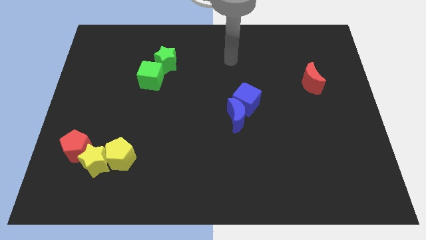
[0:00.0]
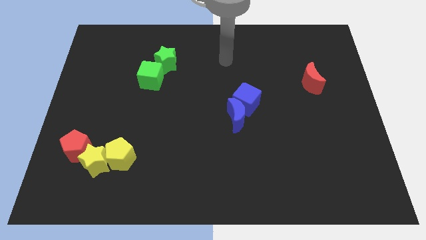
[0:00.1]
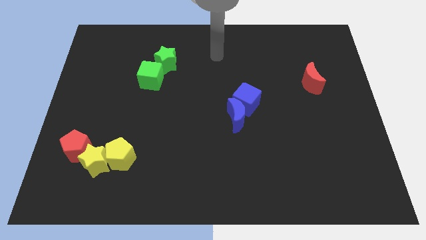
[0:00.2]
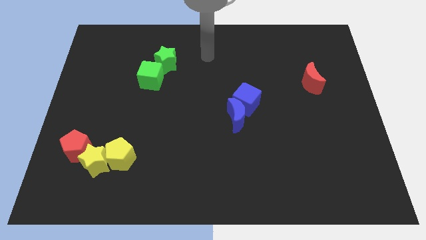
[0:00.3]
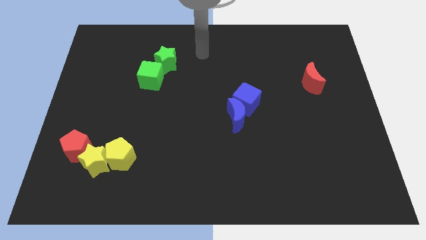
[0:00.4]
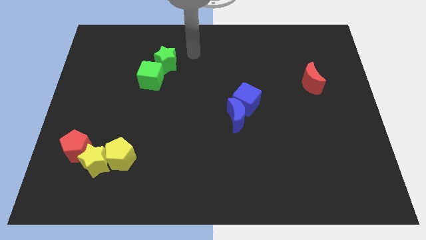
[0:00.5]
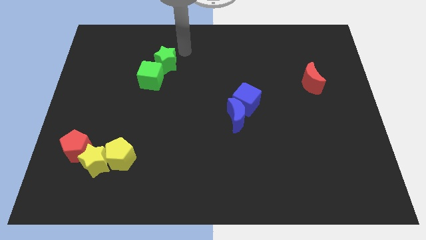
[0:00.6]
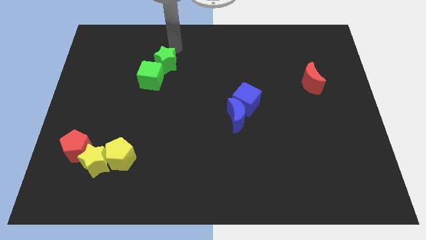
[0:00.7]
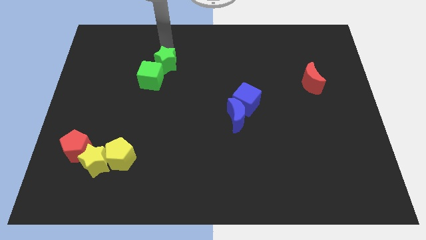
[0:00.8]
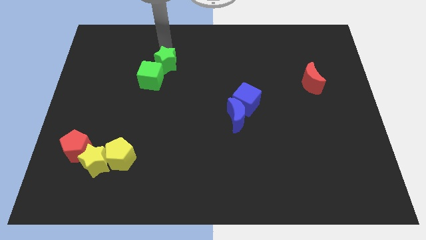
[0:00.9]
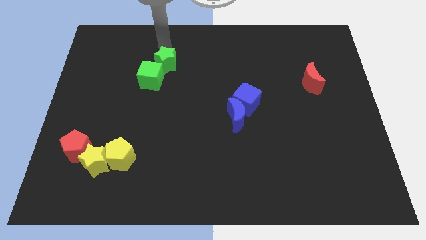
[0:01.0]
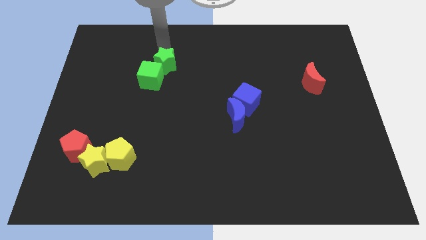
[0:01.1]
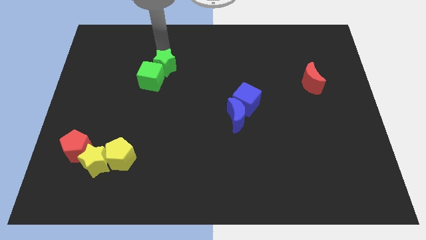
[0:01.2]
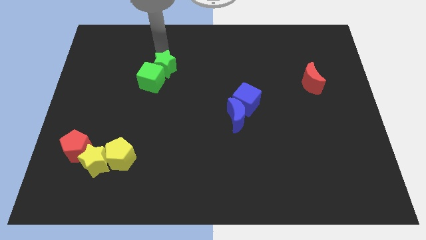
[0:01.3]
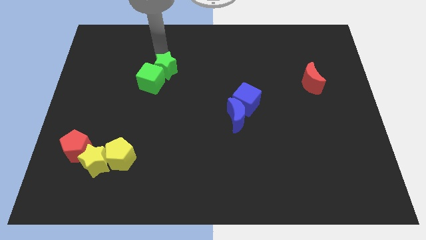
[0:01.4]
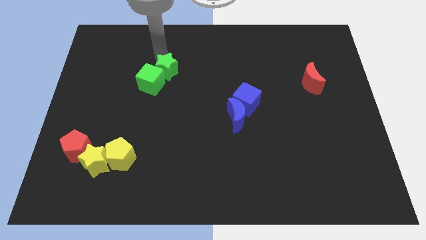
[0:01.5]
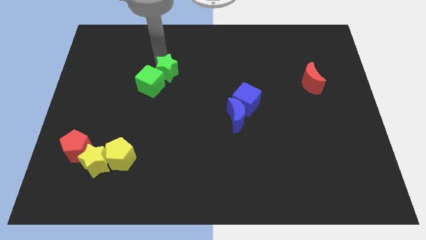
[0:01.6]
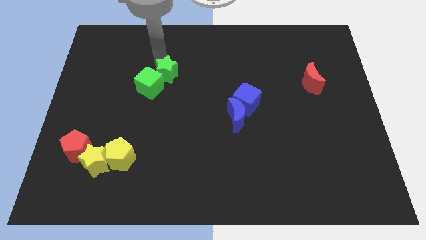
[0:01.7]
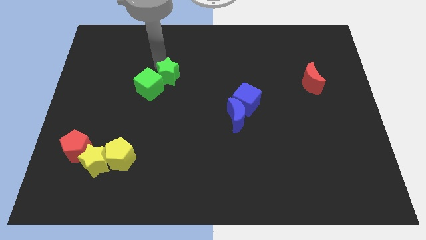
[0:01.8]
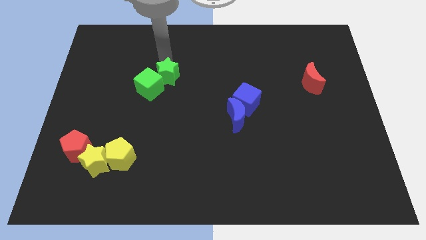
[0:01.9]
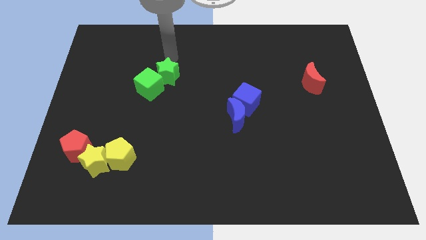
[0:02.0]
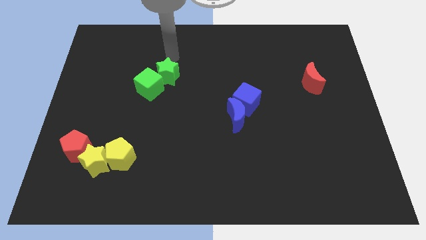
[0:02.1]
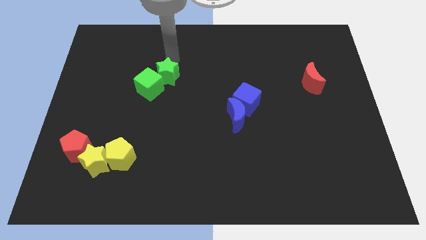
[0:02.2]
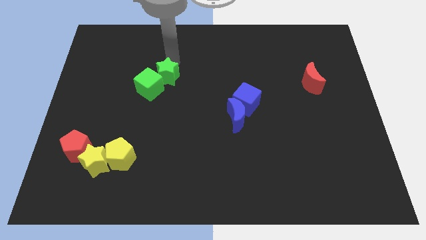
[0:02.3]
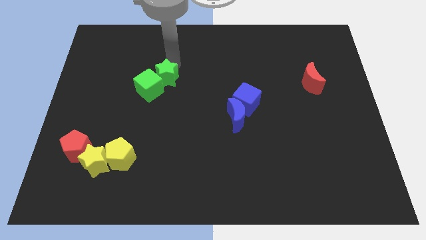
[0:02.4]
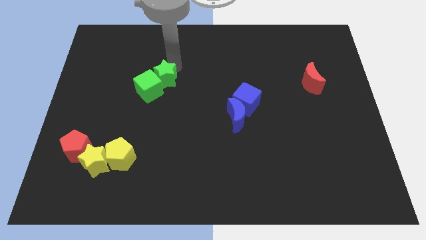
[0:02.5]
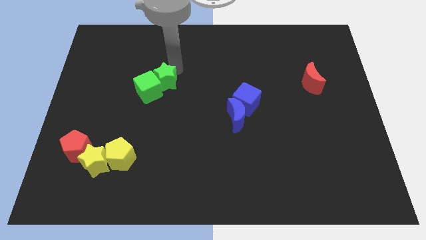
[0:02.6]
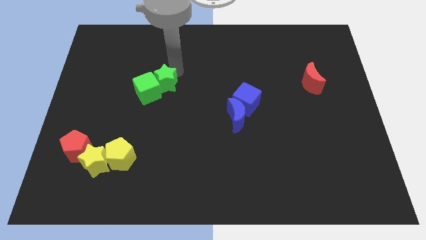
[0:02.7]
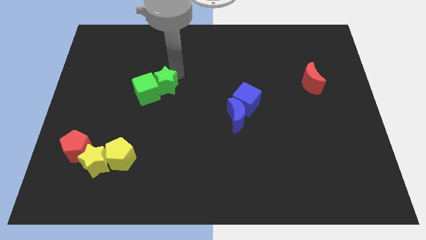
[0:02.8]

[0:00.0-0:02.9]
slightly move the green star down

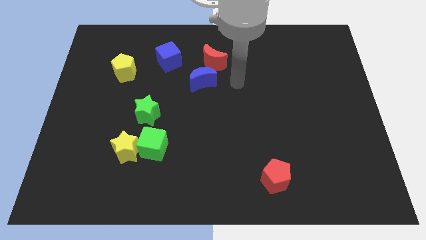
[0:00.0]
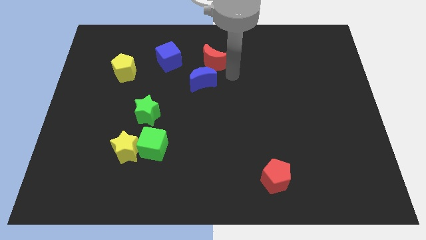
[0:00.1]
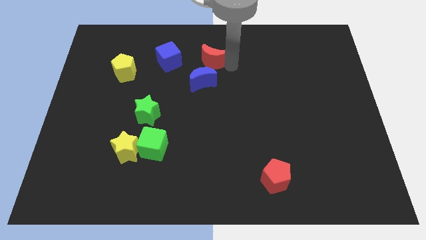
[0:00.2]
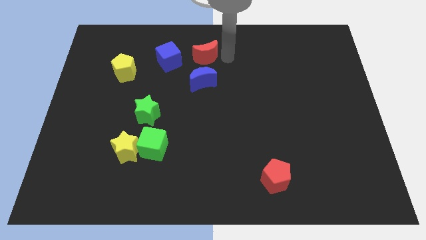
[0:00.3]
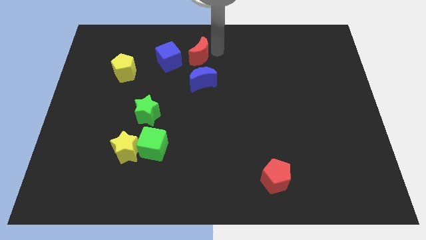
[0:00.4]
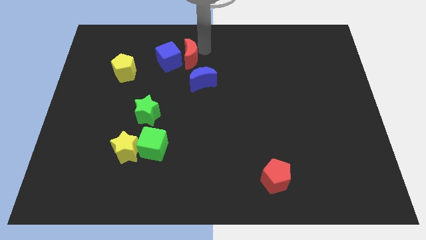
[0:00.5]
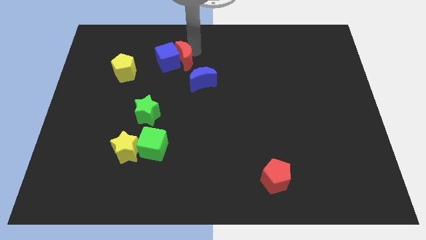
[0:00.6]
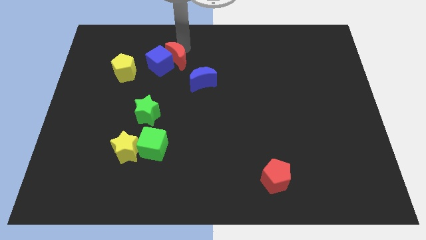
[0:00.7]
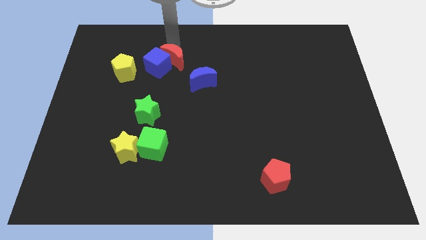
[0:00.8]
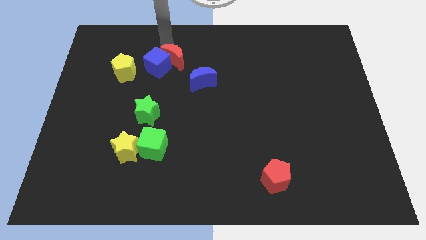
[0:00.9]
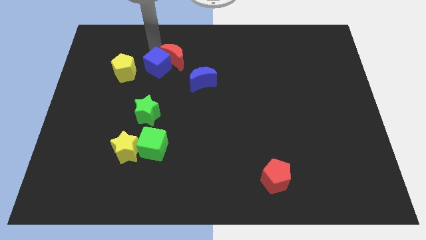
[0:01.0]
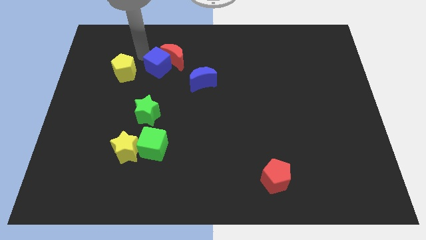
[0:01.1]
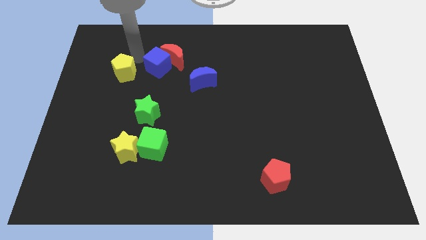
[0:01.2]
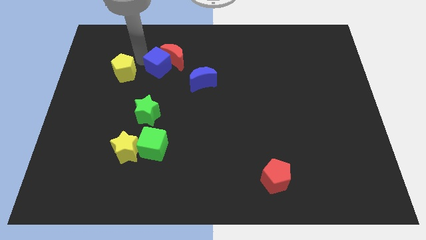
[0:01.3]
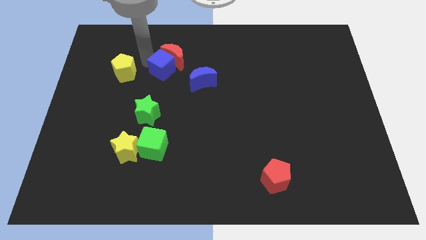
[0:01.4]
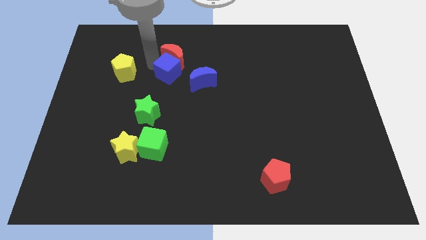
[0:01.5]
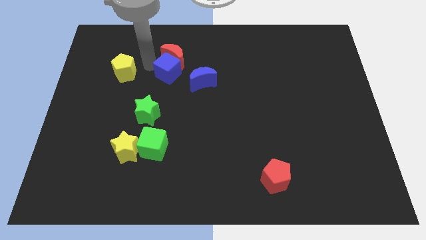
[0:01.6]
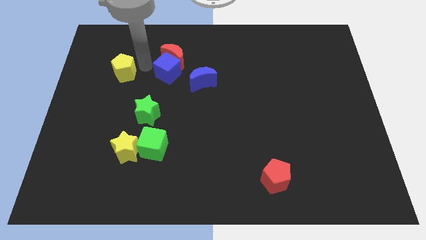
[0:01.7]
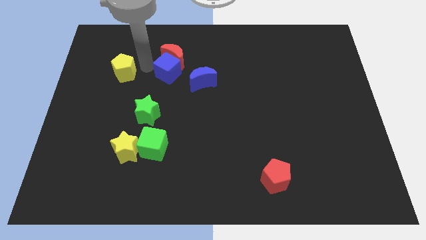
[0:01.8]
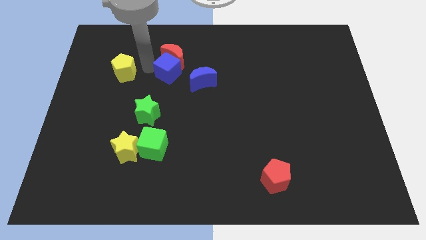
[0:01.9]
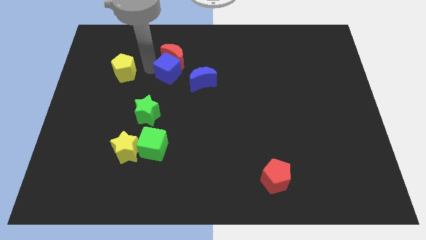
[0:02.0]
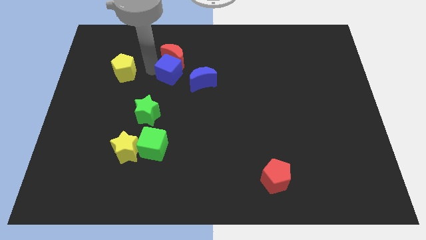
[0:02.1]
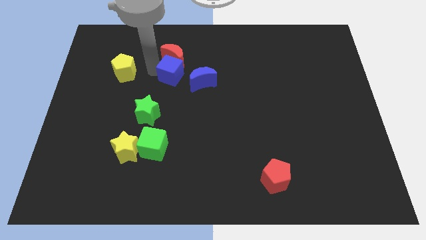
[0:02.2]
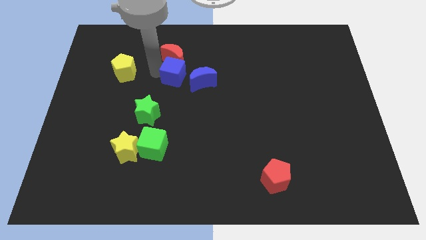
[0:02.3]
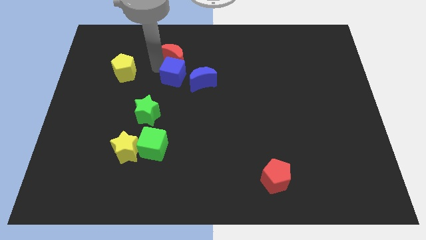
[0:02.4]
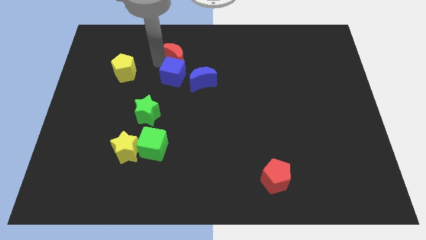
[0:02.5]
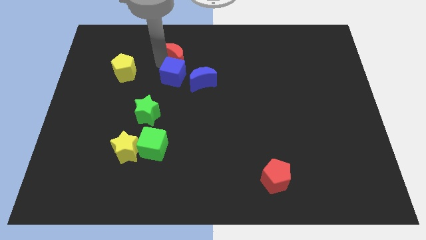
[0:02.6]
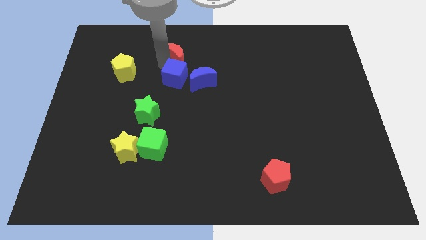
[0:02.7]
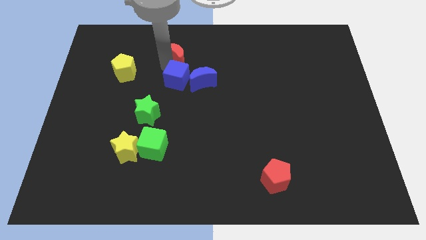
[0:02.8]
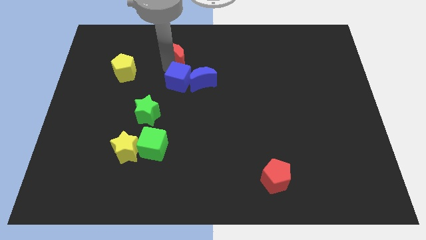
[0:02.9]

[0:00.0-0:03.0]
slide the blue cube slightly downwards and to the right diagonally

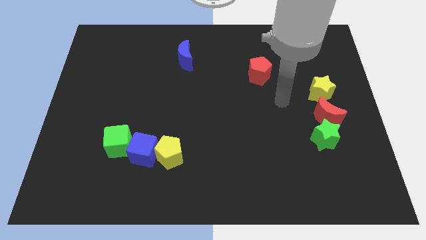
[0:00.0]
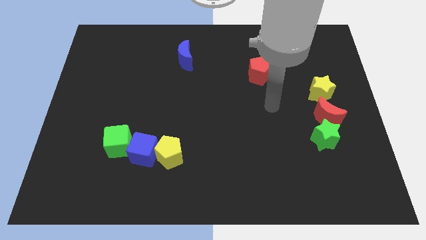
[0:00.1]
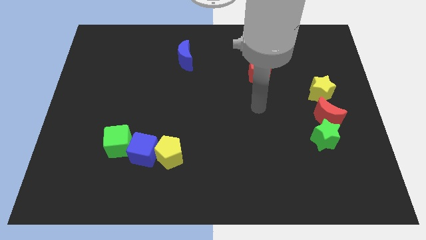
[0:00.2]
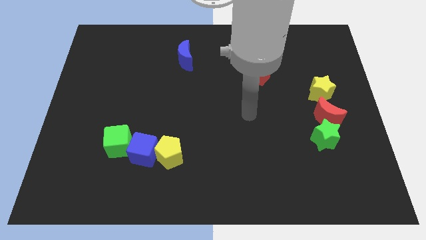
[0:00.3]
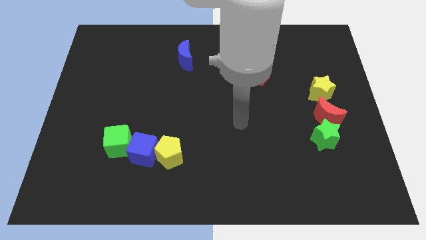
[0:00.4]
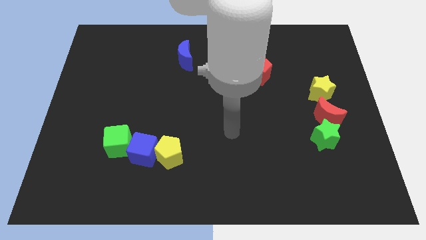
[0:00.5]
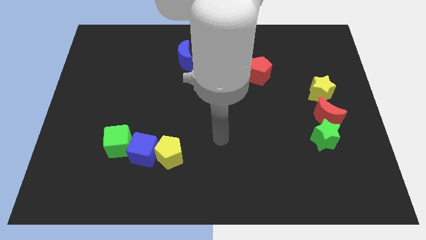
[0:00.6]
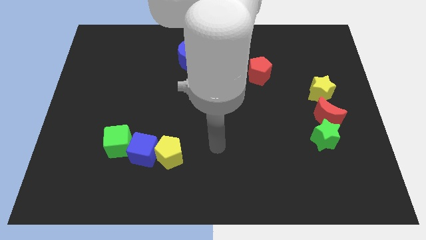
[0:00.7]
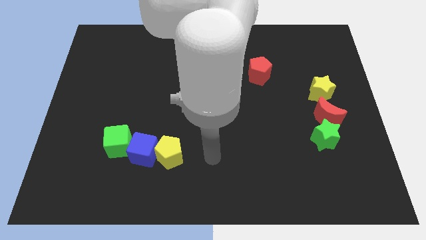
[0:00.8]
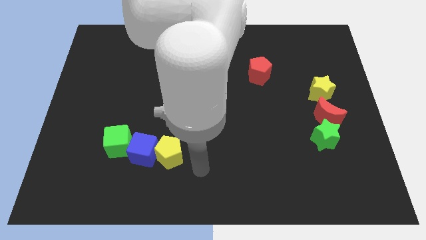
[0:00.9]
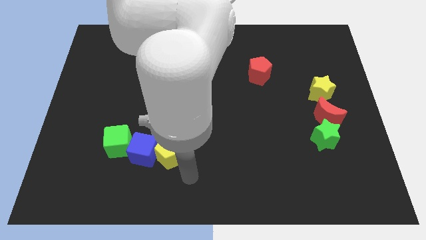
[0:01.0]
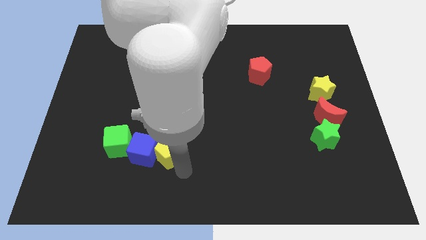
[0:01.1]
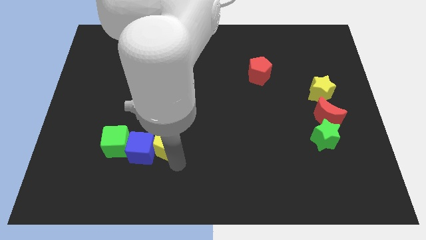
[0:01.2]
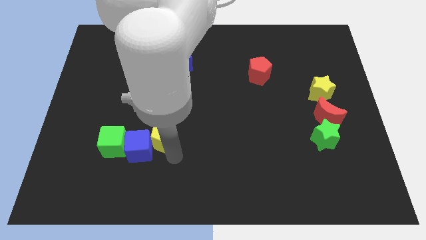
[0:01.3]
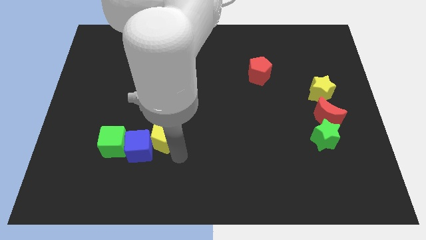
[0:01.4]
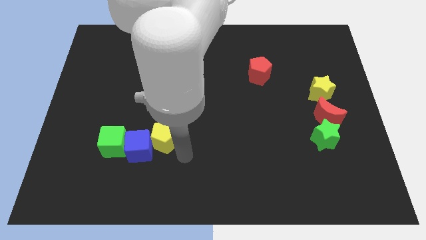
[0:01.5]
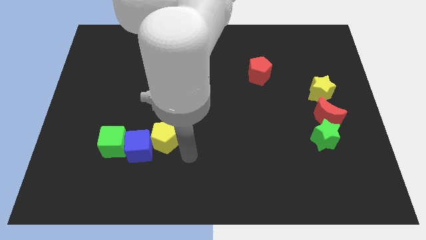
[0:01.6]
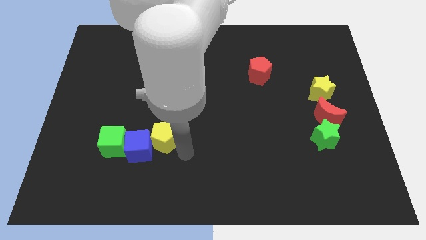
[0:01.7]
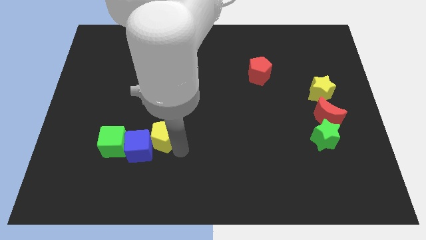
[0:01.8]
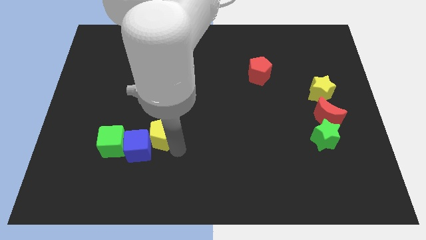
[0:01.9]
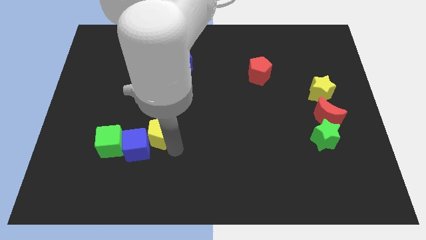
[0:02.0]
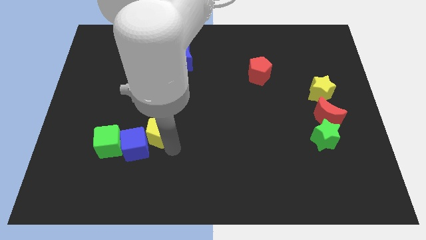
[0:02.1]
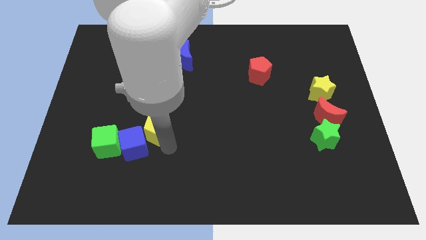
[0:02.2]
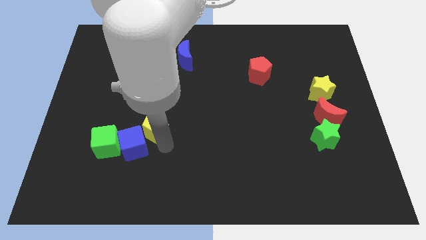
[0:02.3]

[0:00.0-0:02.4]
move the yellow pentagon a bit upwards and left diagonally

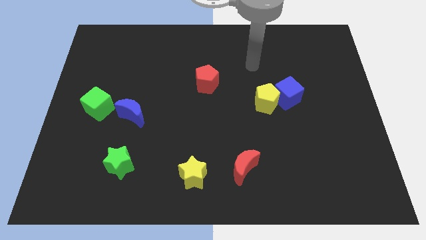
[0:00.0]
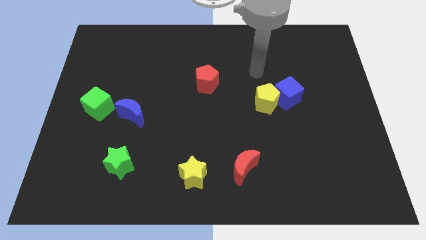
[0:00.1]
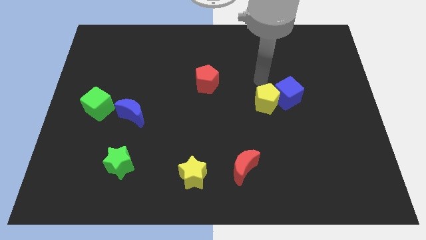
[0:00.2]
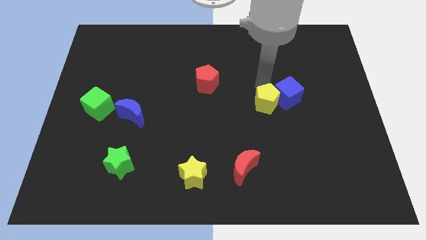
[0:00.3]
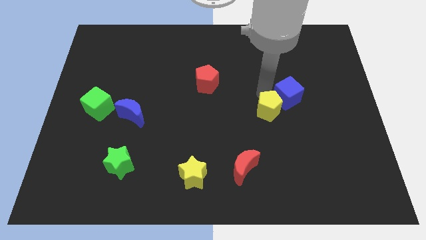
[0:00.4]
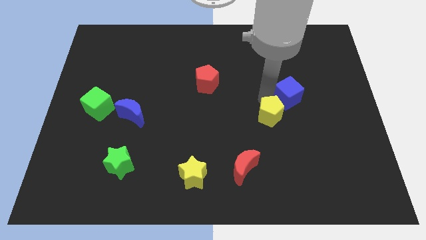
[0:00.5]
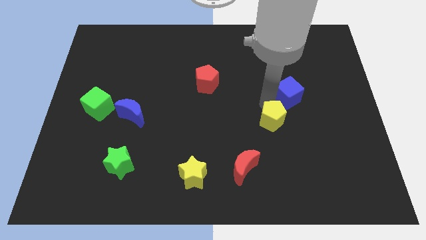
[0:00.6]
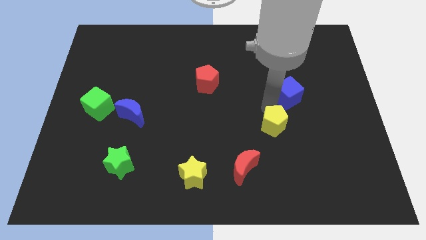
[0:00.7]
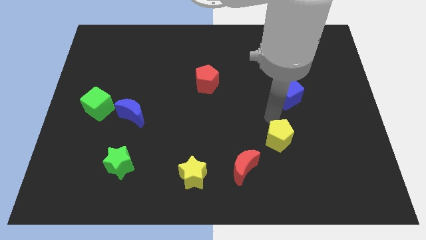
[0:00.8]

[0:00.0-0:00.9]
slightly push the yellow pentagon downwards
